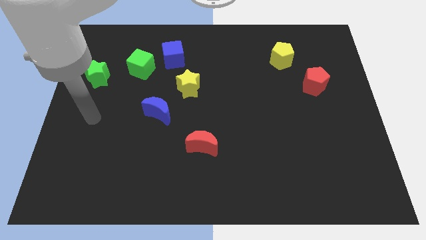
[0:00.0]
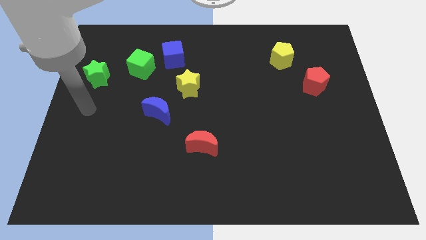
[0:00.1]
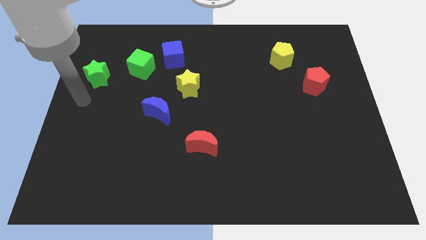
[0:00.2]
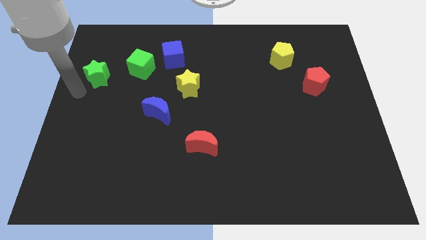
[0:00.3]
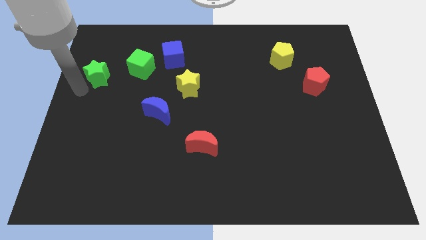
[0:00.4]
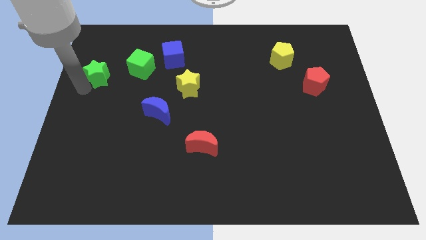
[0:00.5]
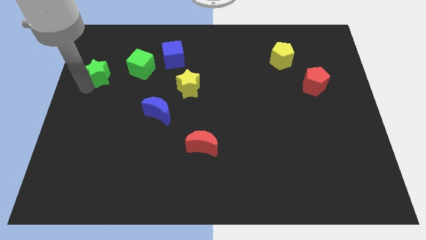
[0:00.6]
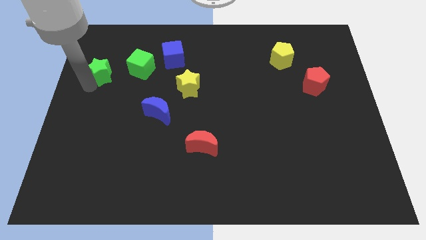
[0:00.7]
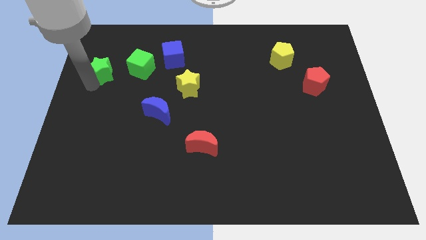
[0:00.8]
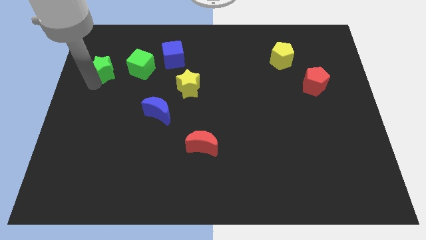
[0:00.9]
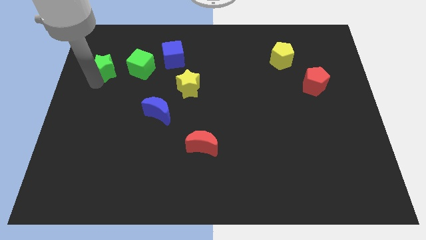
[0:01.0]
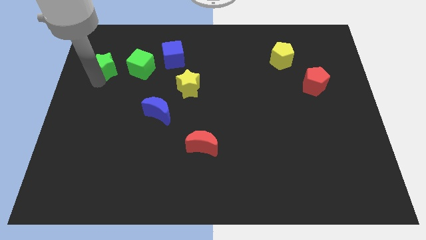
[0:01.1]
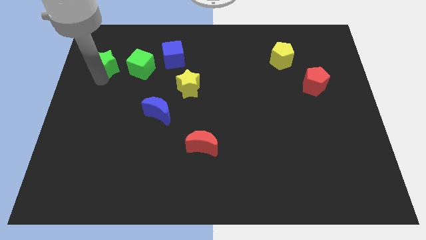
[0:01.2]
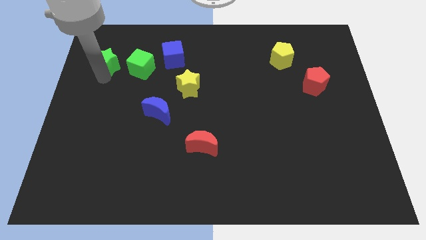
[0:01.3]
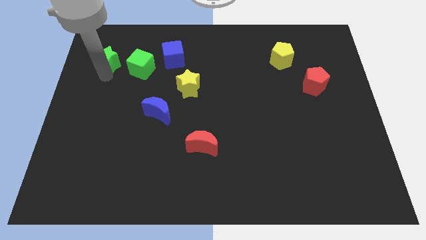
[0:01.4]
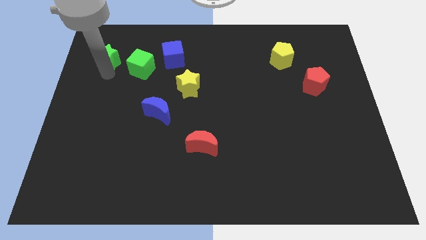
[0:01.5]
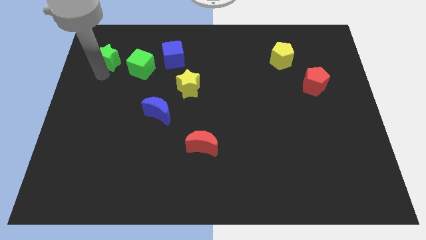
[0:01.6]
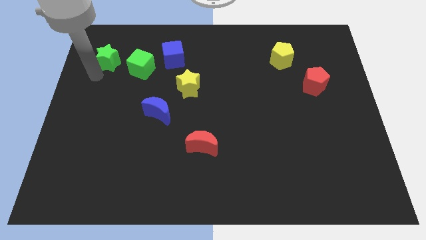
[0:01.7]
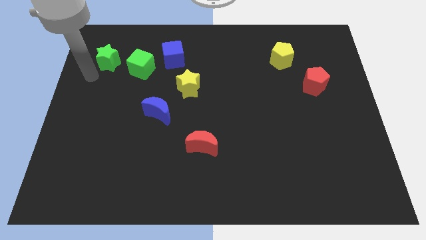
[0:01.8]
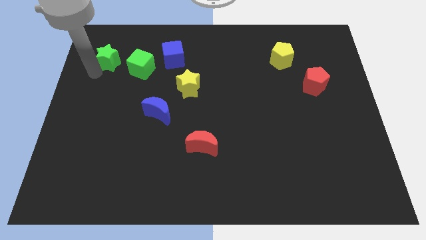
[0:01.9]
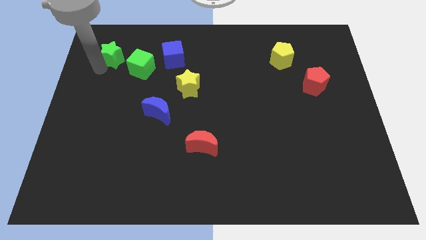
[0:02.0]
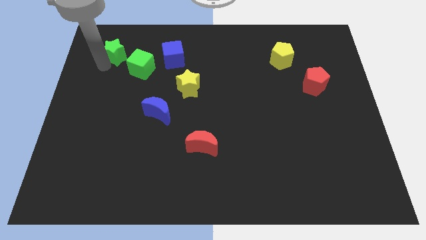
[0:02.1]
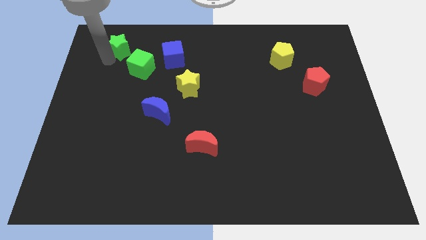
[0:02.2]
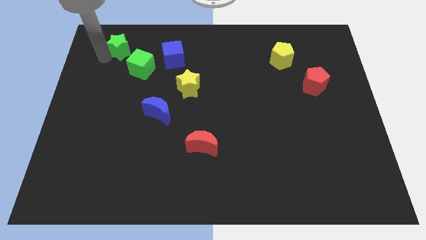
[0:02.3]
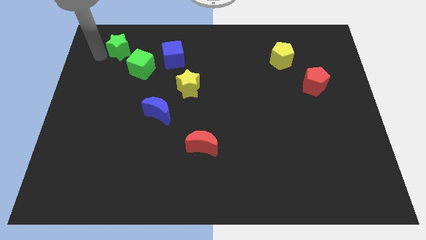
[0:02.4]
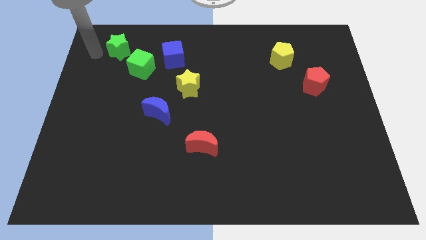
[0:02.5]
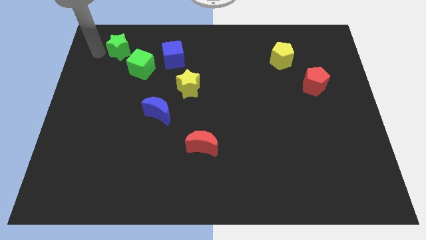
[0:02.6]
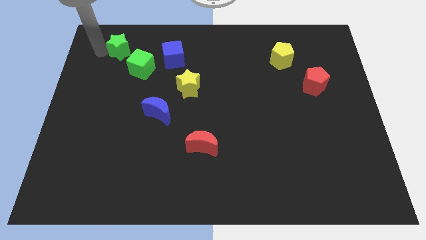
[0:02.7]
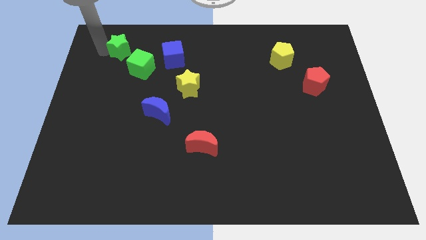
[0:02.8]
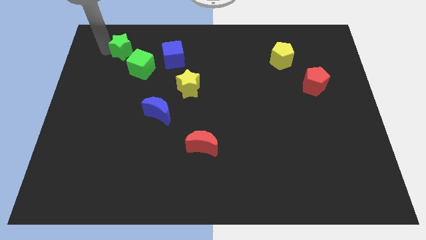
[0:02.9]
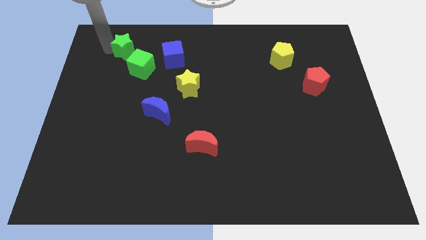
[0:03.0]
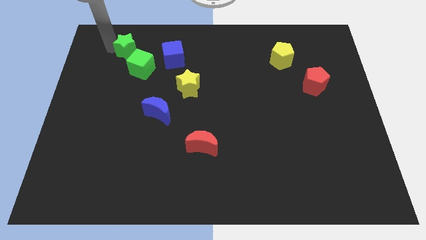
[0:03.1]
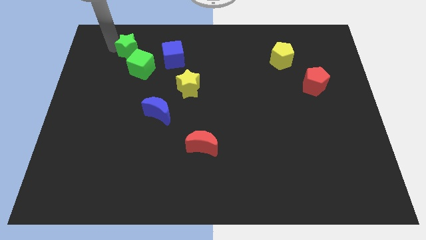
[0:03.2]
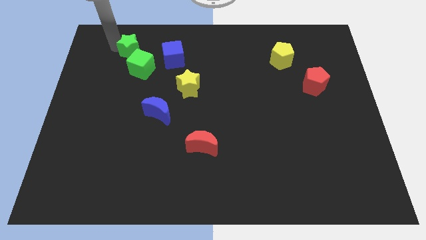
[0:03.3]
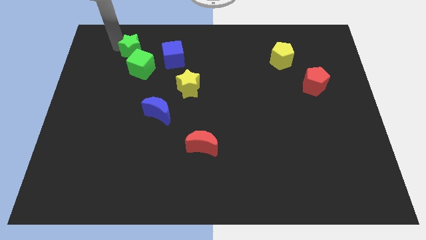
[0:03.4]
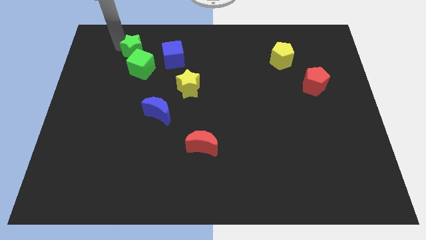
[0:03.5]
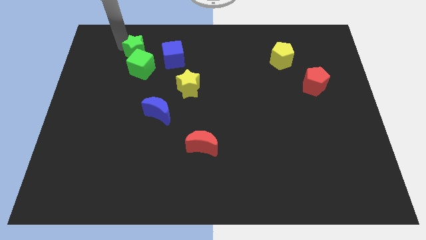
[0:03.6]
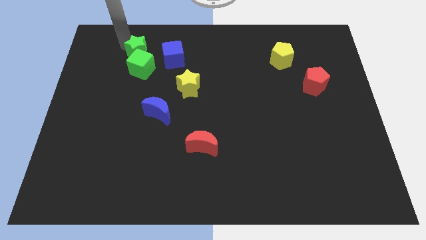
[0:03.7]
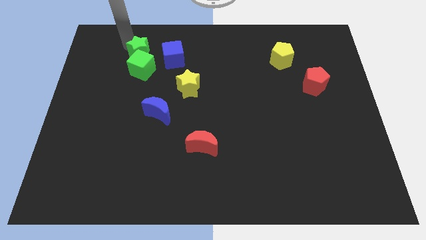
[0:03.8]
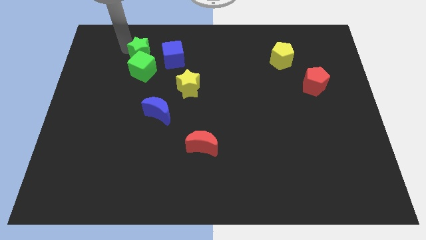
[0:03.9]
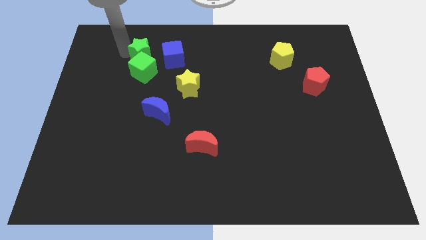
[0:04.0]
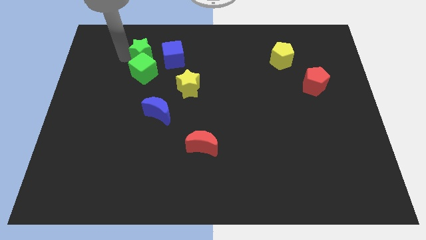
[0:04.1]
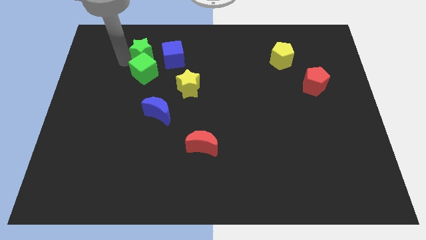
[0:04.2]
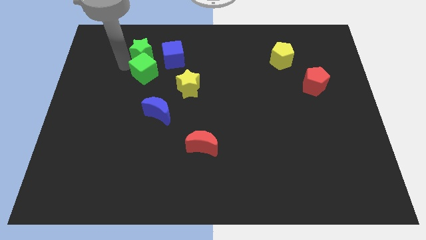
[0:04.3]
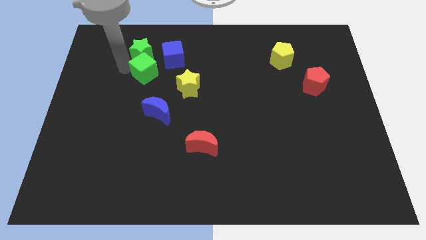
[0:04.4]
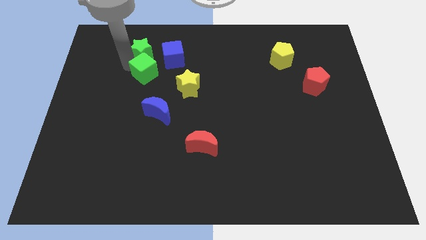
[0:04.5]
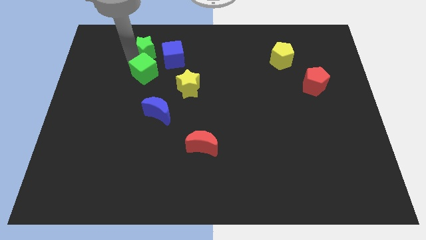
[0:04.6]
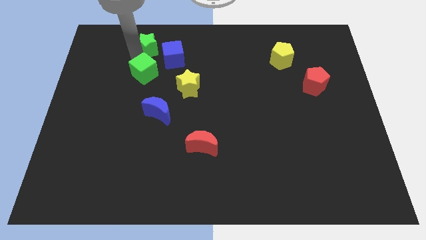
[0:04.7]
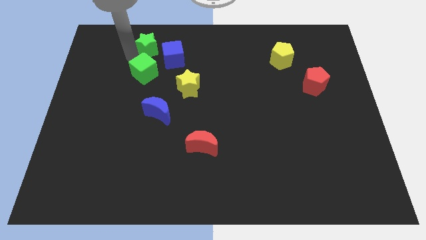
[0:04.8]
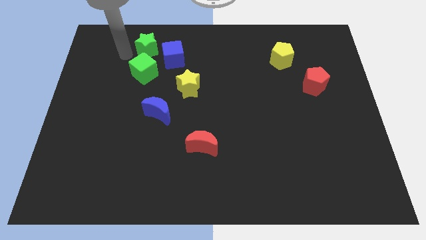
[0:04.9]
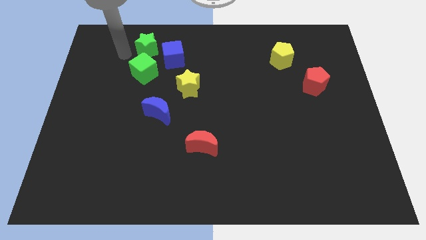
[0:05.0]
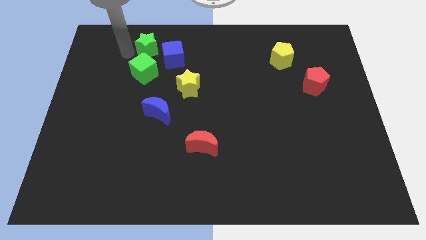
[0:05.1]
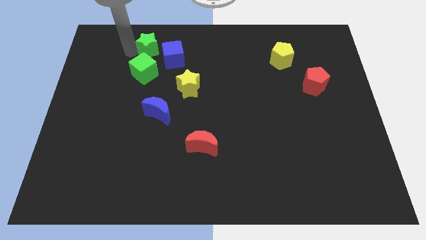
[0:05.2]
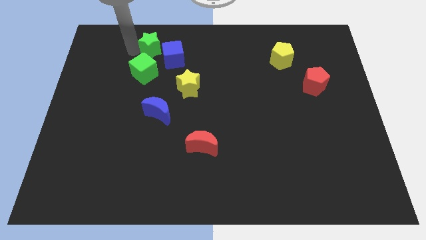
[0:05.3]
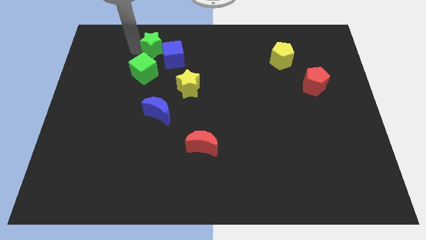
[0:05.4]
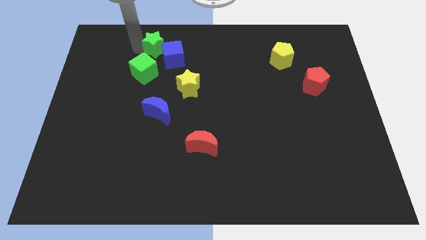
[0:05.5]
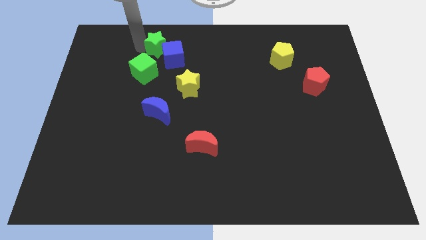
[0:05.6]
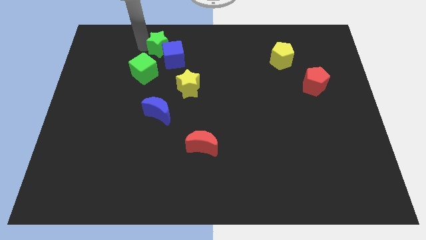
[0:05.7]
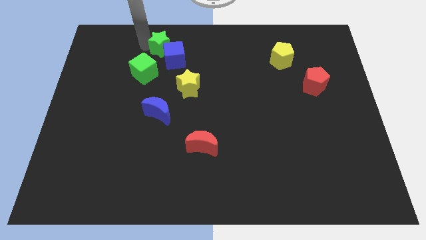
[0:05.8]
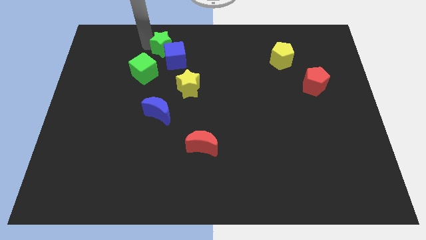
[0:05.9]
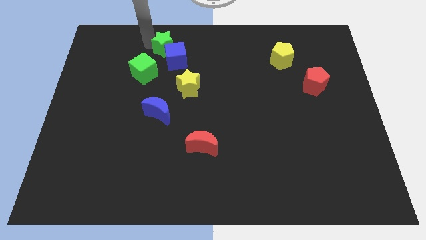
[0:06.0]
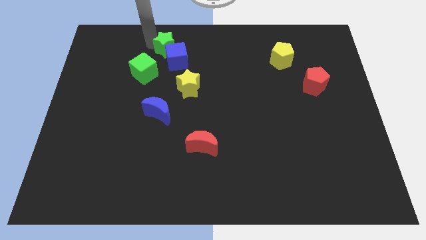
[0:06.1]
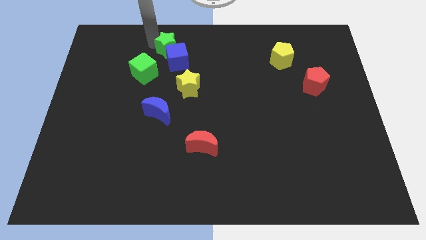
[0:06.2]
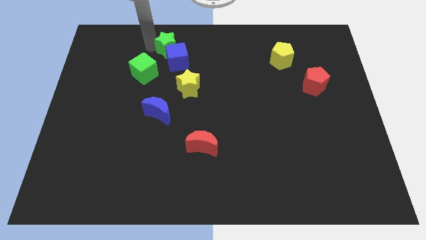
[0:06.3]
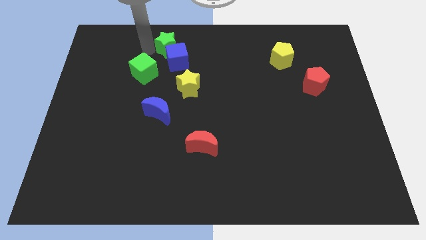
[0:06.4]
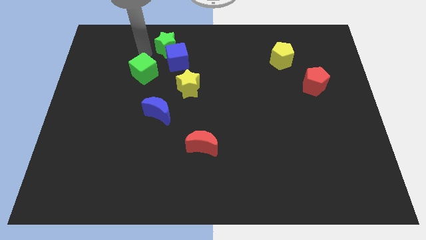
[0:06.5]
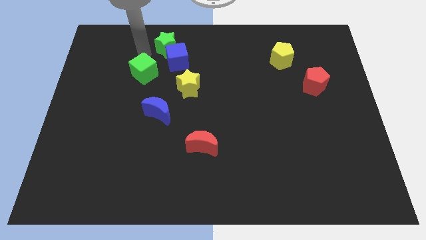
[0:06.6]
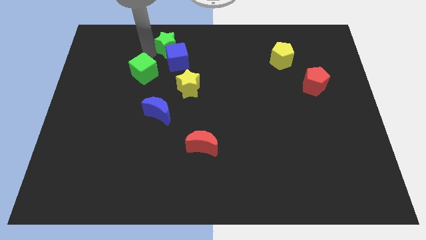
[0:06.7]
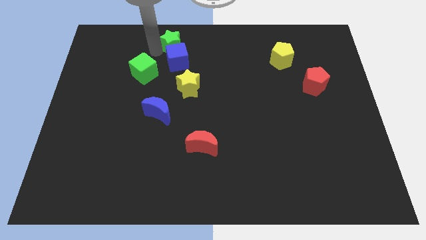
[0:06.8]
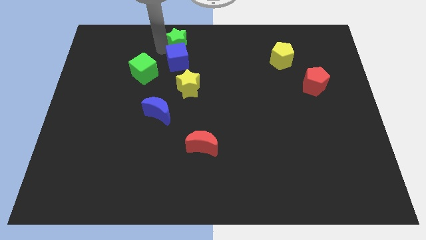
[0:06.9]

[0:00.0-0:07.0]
move the green star to the towards your base
